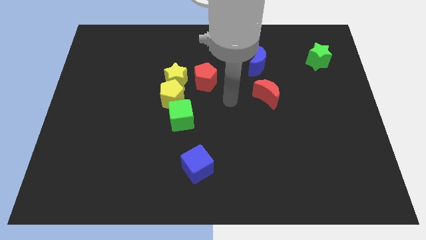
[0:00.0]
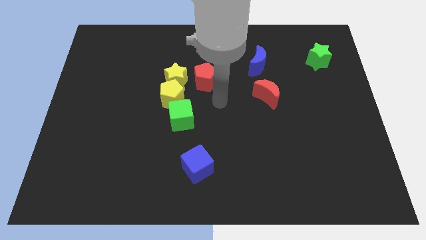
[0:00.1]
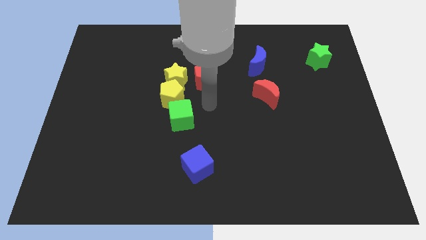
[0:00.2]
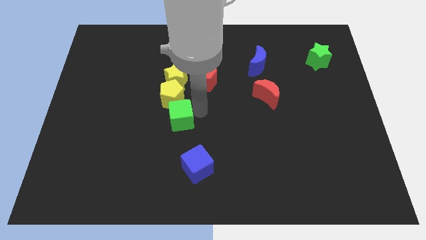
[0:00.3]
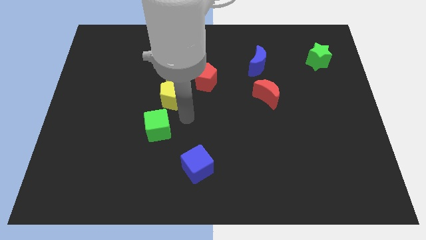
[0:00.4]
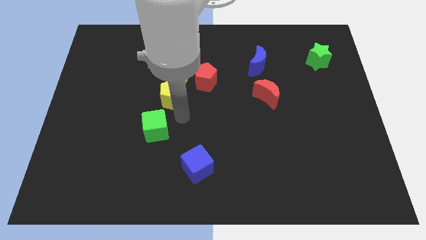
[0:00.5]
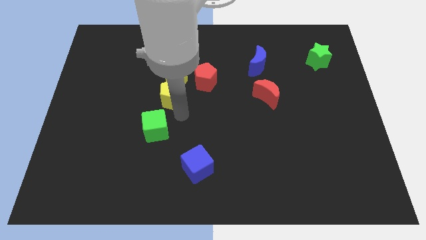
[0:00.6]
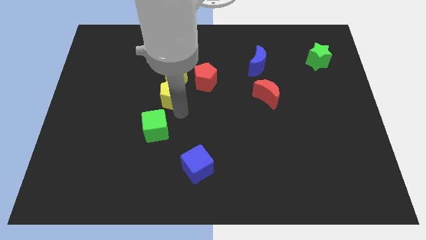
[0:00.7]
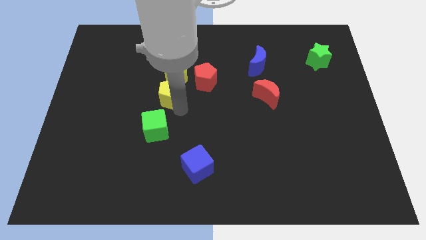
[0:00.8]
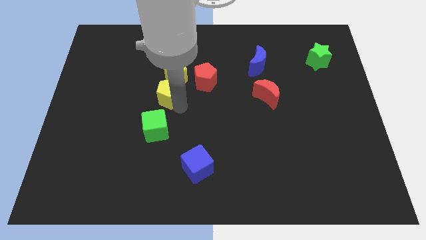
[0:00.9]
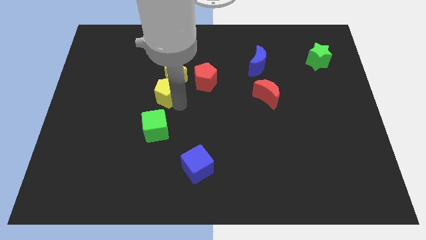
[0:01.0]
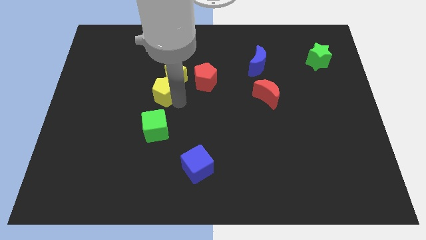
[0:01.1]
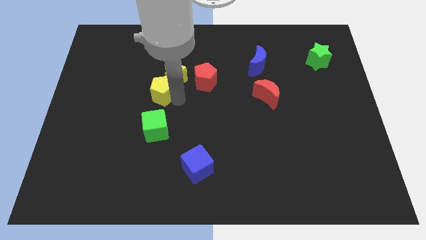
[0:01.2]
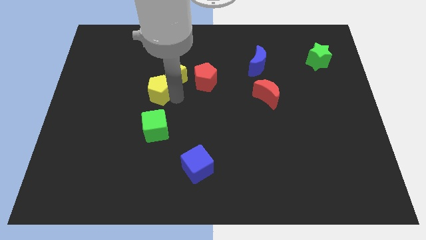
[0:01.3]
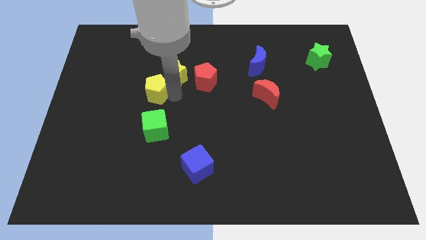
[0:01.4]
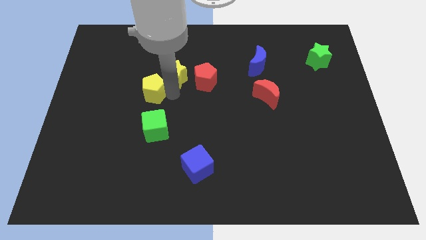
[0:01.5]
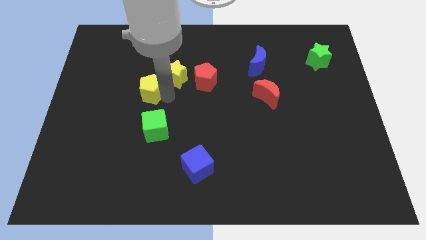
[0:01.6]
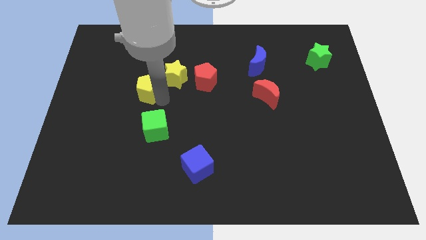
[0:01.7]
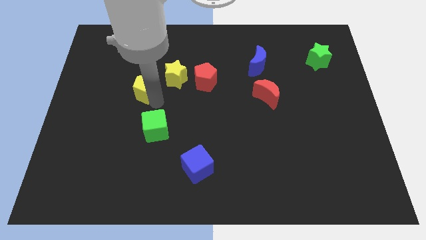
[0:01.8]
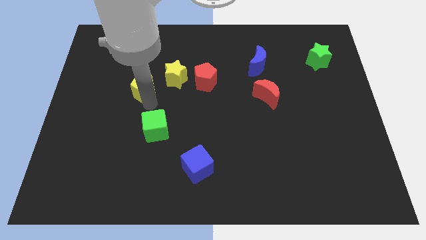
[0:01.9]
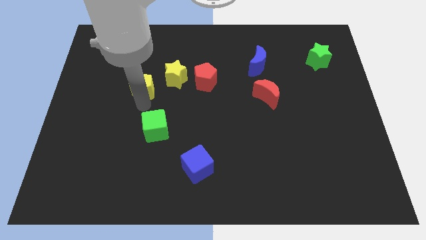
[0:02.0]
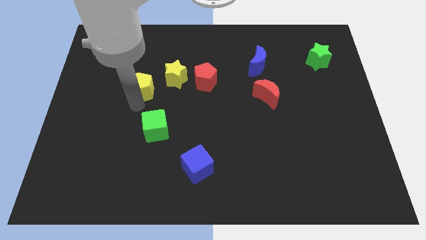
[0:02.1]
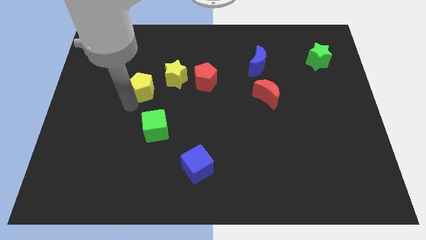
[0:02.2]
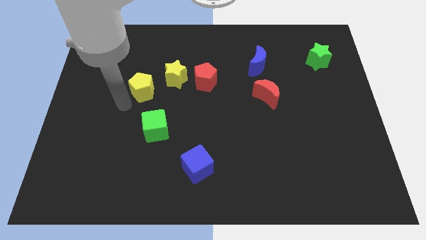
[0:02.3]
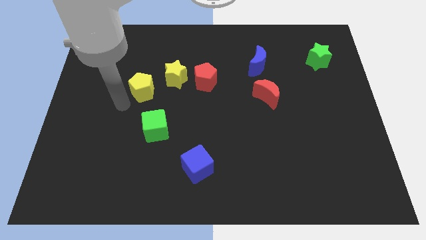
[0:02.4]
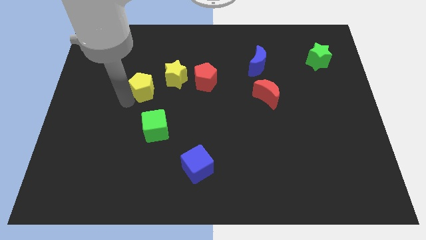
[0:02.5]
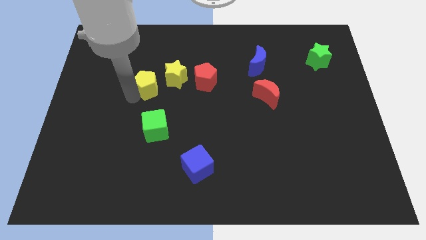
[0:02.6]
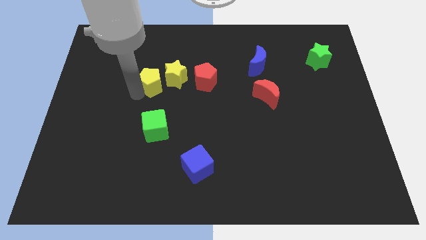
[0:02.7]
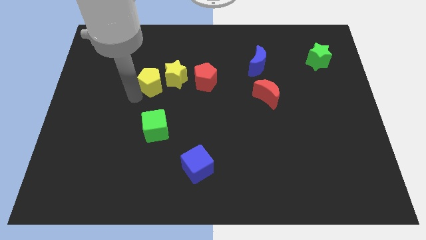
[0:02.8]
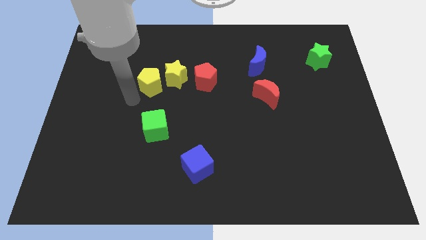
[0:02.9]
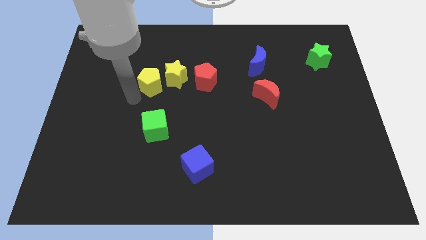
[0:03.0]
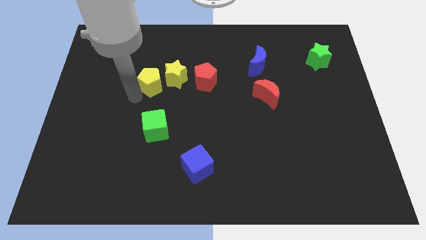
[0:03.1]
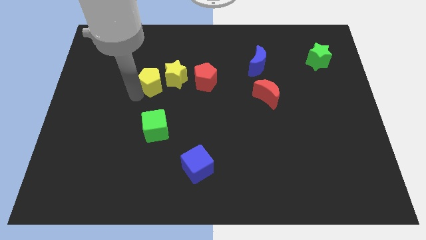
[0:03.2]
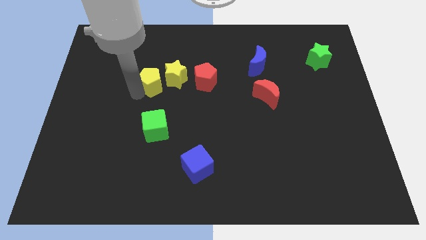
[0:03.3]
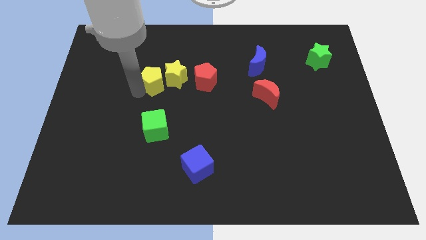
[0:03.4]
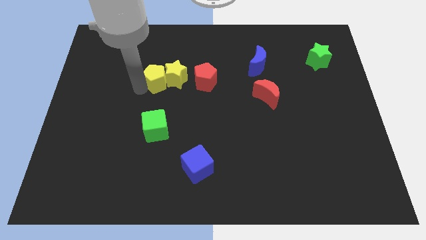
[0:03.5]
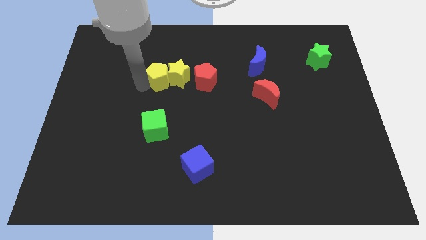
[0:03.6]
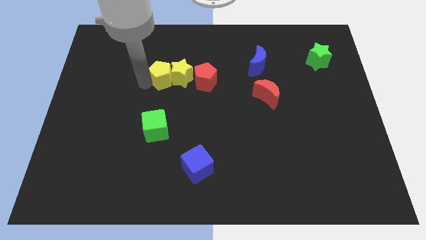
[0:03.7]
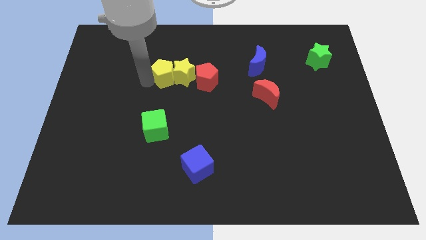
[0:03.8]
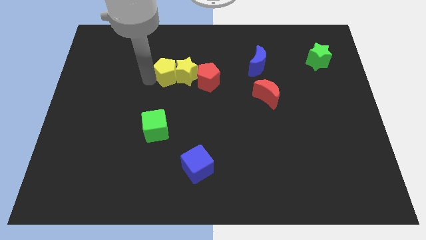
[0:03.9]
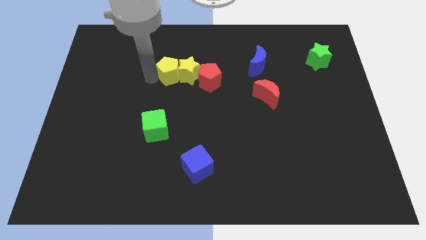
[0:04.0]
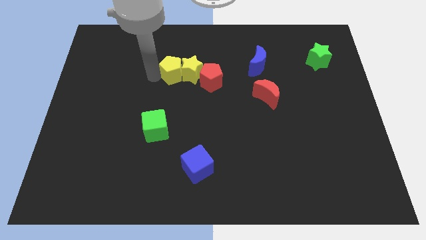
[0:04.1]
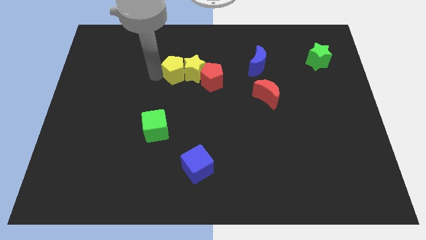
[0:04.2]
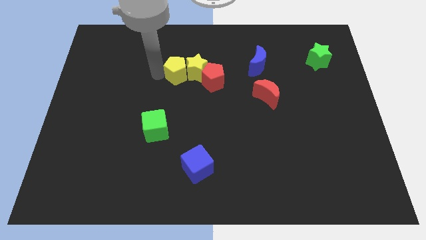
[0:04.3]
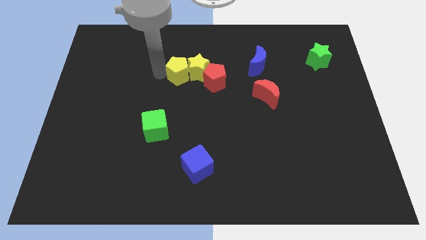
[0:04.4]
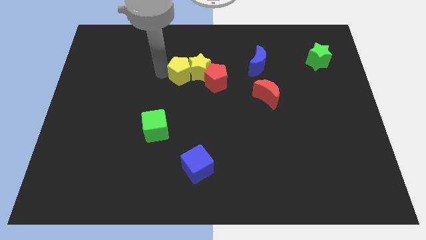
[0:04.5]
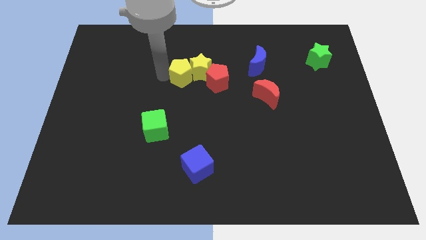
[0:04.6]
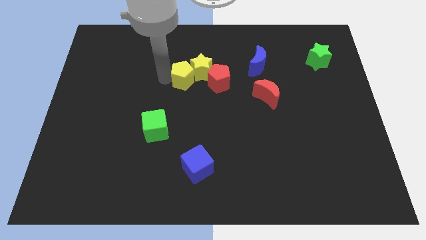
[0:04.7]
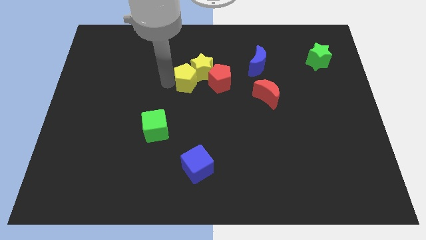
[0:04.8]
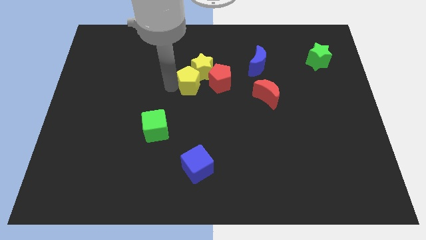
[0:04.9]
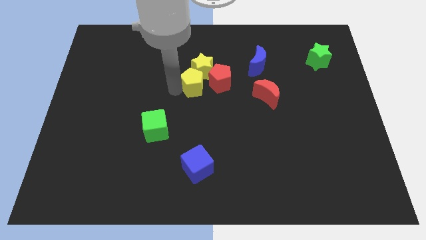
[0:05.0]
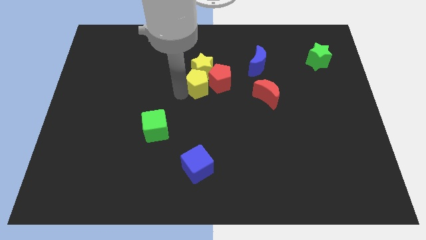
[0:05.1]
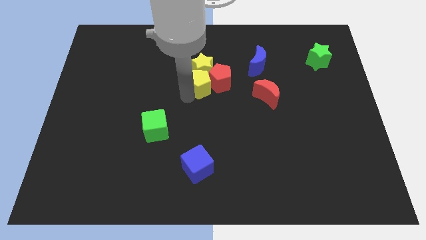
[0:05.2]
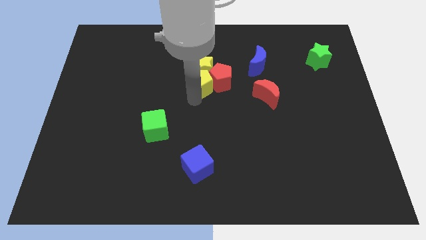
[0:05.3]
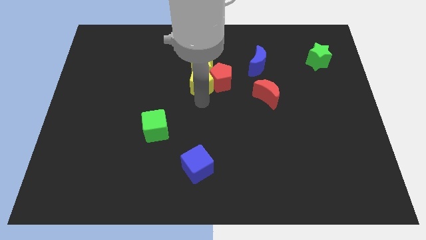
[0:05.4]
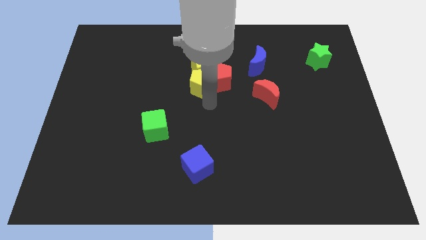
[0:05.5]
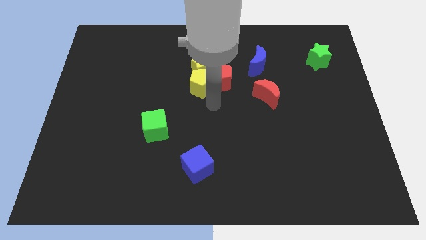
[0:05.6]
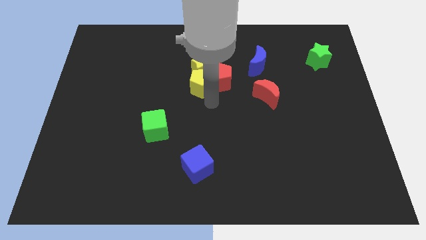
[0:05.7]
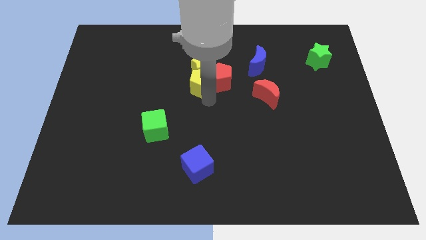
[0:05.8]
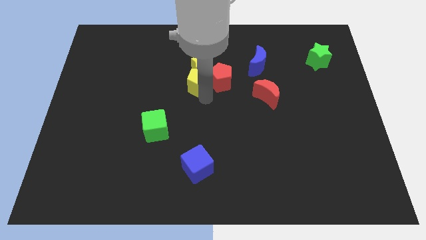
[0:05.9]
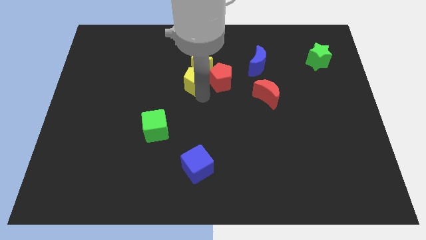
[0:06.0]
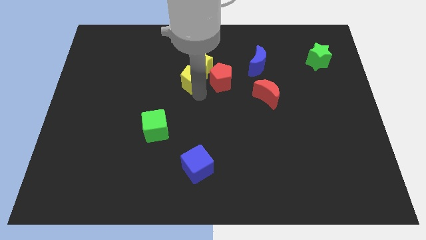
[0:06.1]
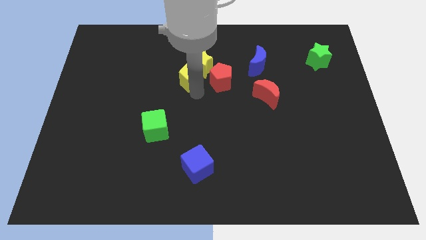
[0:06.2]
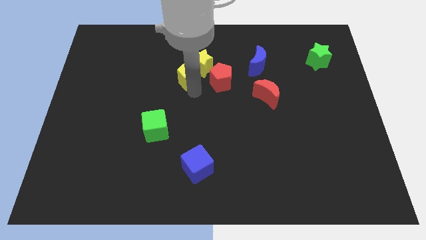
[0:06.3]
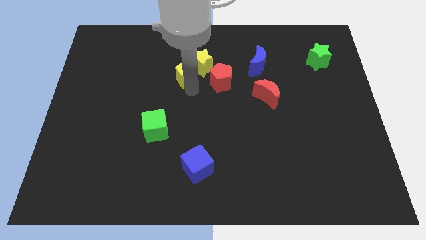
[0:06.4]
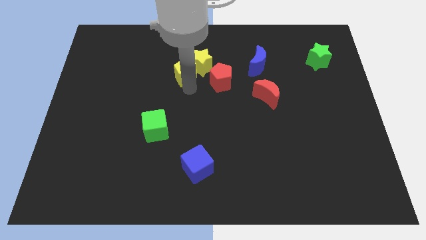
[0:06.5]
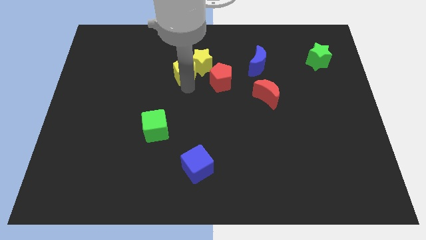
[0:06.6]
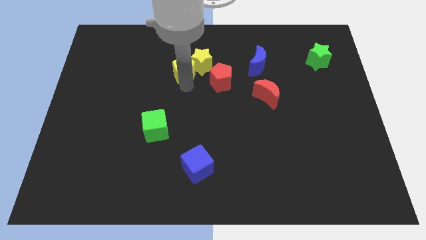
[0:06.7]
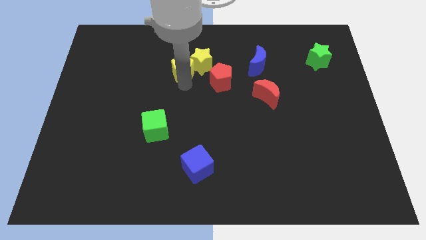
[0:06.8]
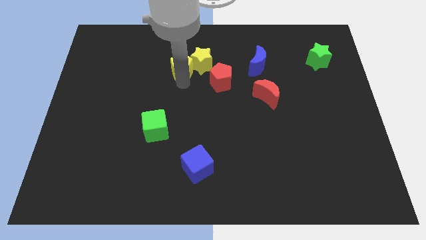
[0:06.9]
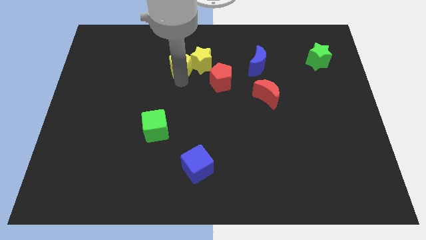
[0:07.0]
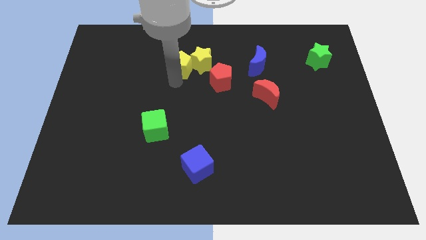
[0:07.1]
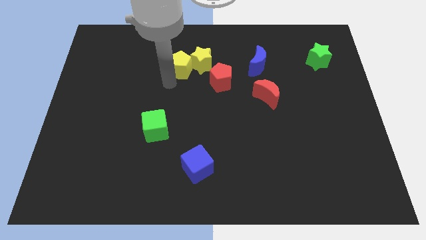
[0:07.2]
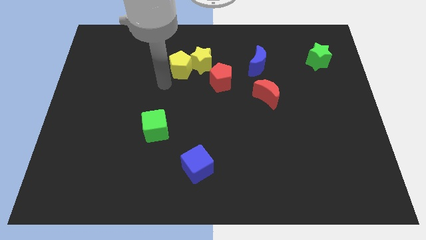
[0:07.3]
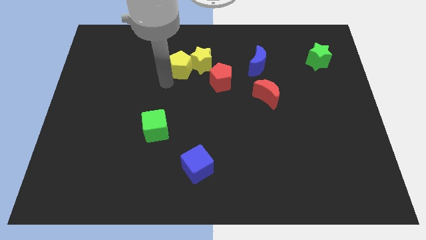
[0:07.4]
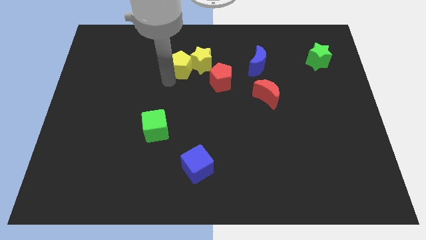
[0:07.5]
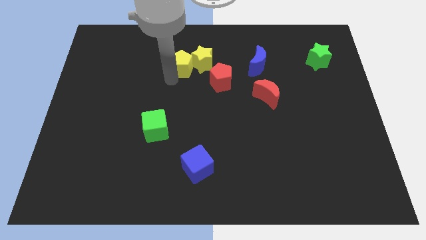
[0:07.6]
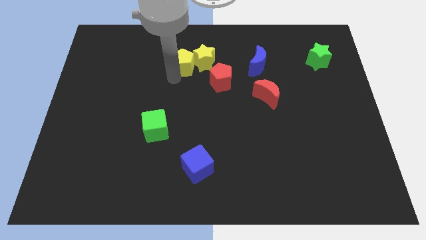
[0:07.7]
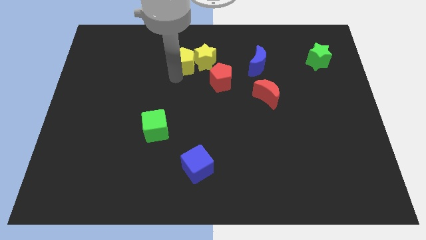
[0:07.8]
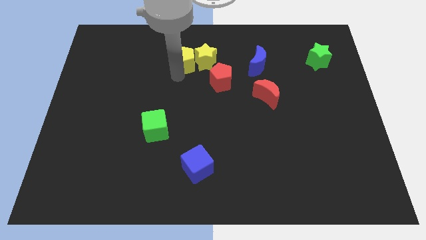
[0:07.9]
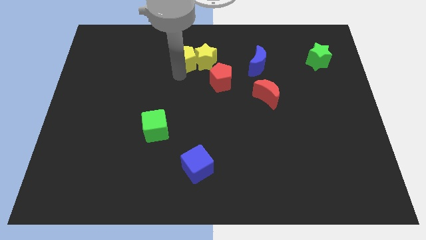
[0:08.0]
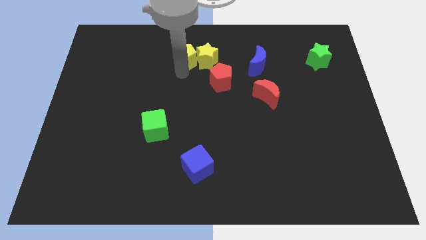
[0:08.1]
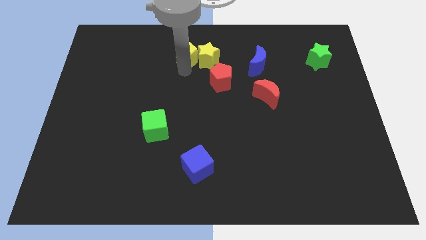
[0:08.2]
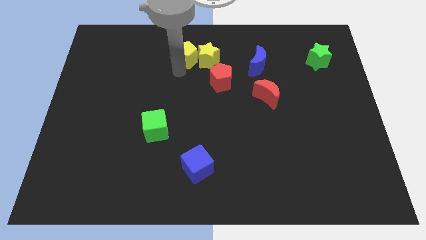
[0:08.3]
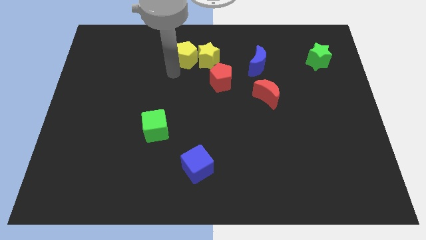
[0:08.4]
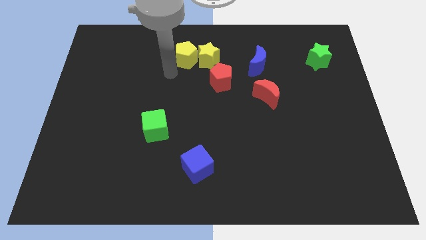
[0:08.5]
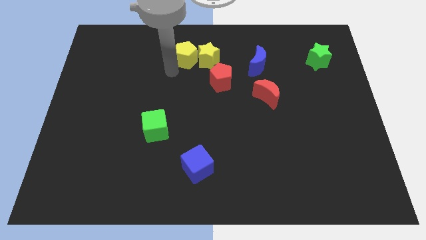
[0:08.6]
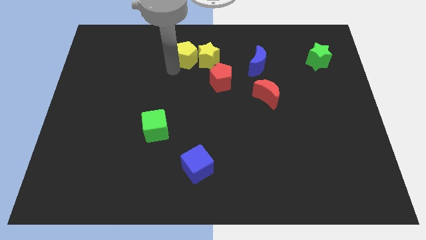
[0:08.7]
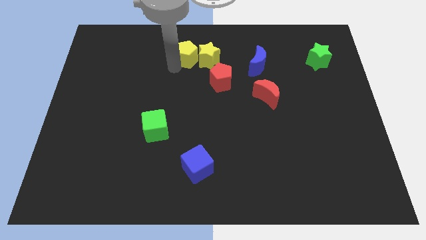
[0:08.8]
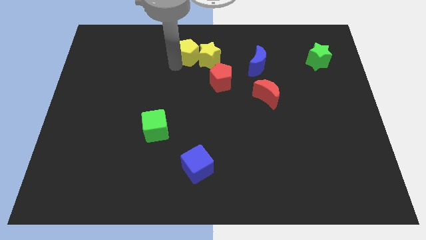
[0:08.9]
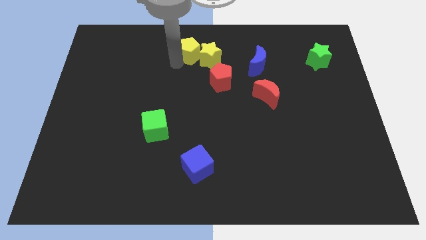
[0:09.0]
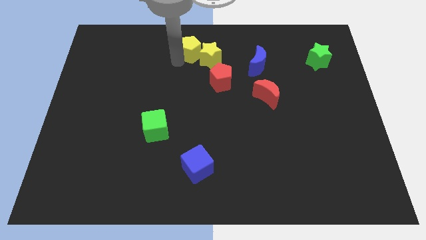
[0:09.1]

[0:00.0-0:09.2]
slide the yellow pentagon to the top
